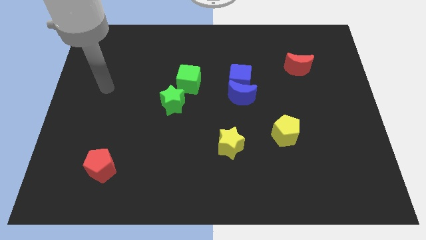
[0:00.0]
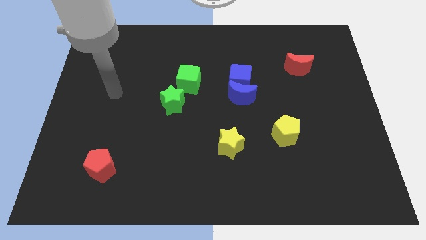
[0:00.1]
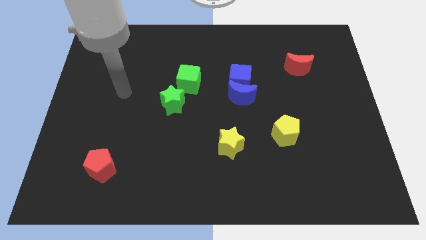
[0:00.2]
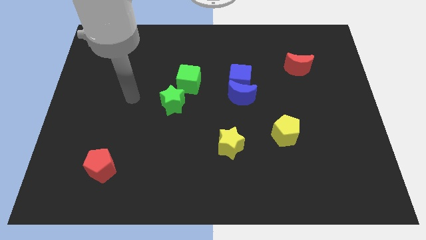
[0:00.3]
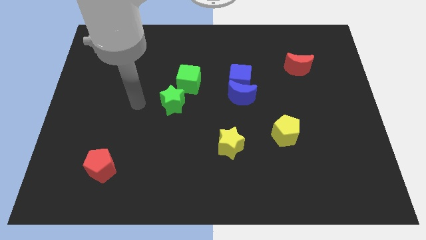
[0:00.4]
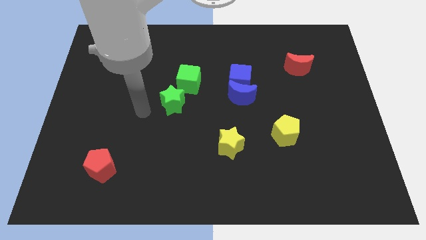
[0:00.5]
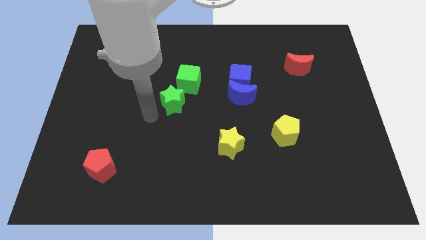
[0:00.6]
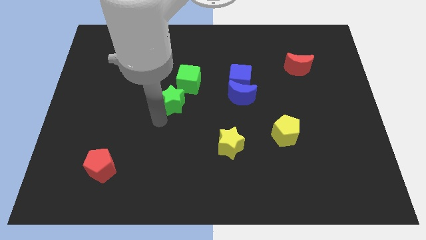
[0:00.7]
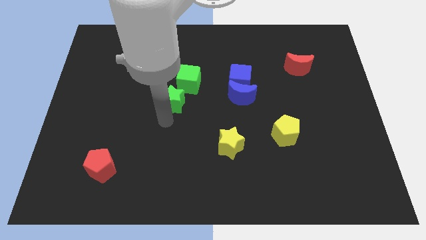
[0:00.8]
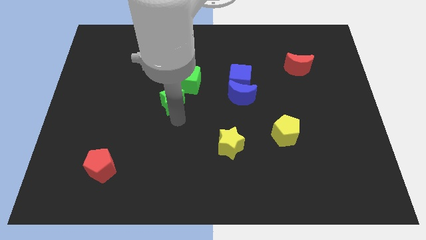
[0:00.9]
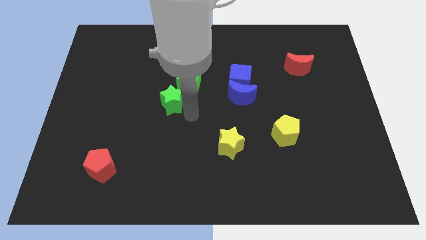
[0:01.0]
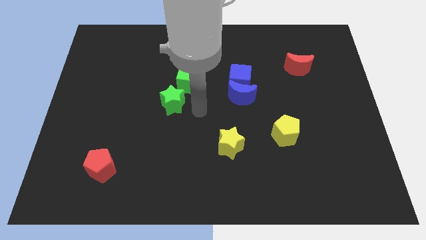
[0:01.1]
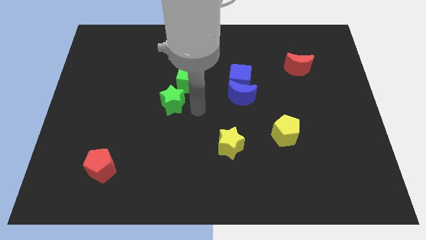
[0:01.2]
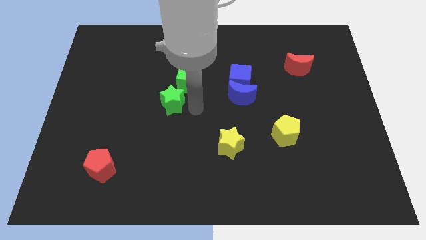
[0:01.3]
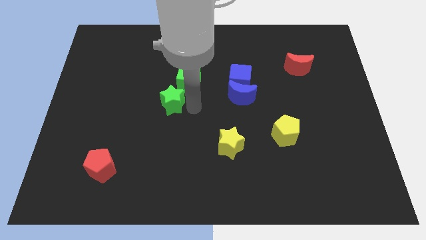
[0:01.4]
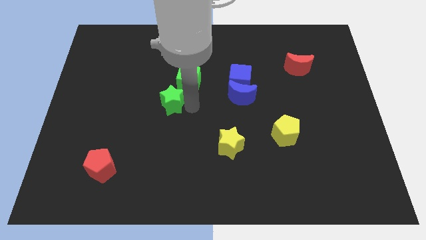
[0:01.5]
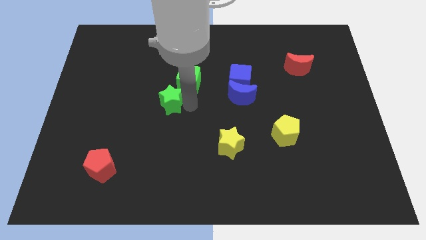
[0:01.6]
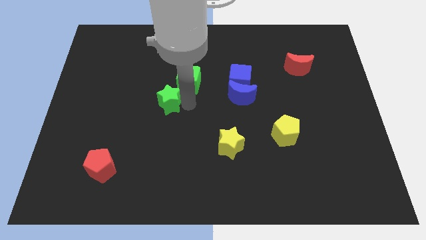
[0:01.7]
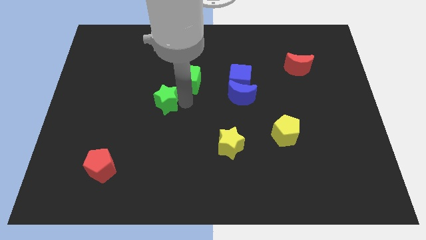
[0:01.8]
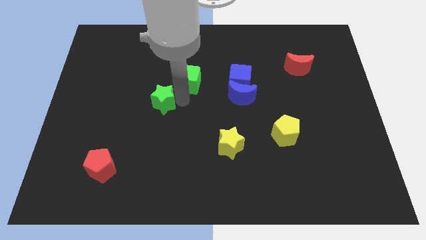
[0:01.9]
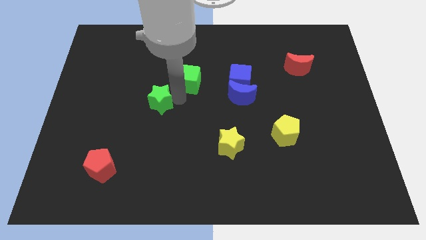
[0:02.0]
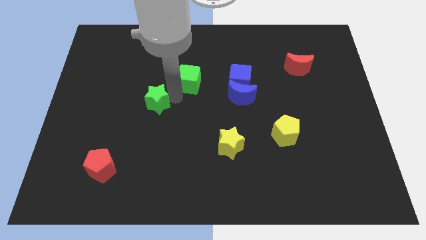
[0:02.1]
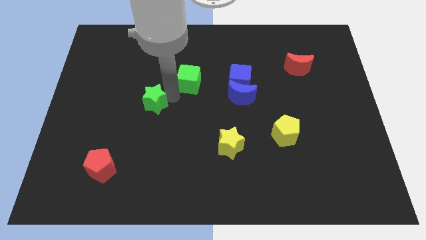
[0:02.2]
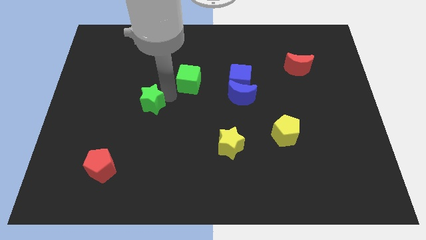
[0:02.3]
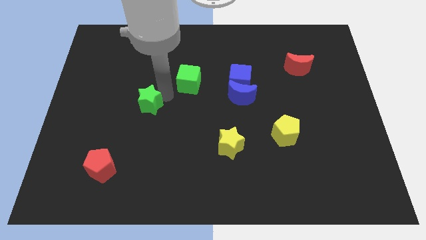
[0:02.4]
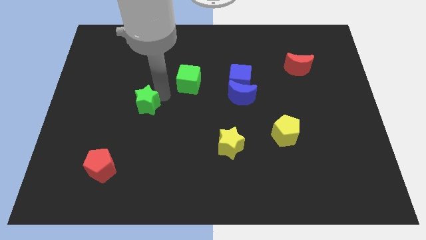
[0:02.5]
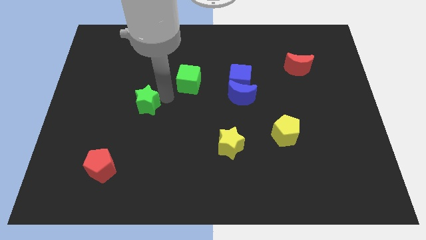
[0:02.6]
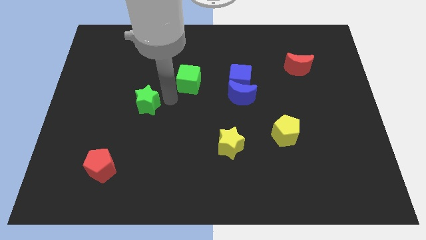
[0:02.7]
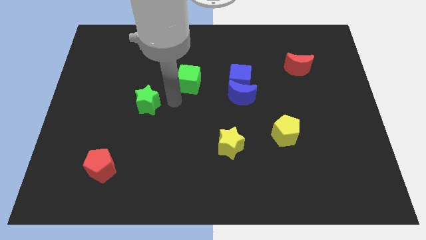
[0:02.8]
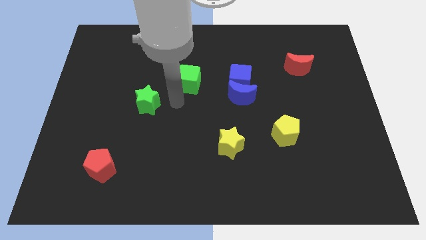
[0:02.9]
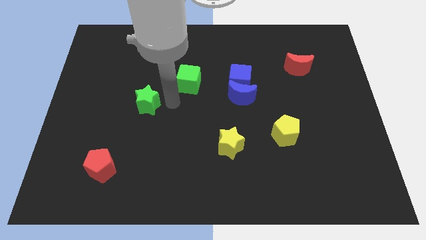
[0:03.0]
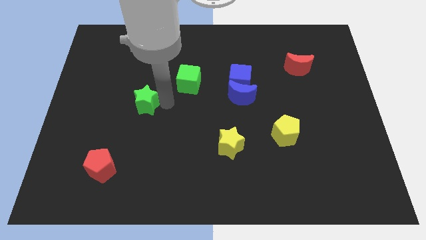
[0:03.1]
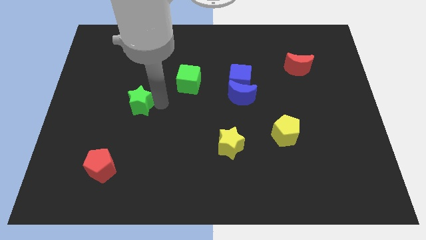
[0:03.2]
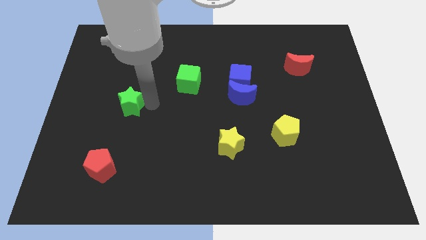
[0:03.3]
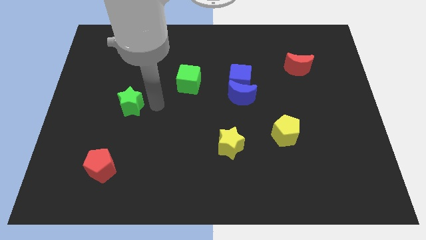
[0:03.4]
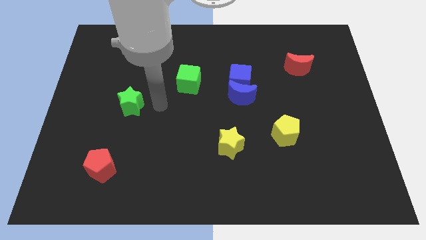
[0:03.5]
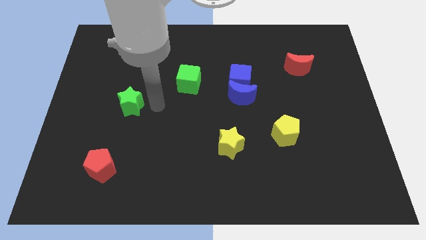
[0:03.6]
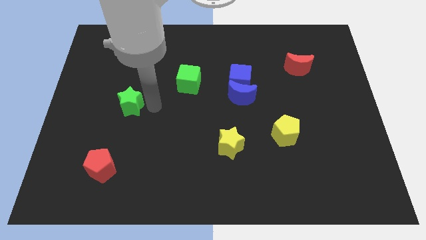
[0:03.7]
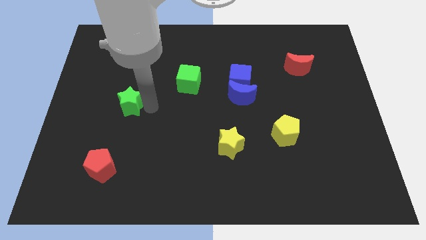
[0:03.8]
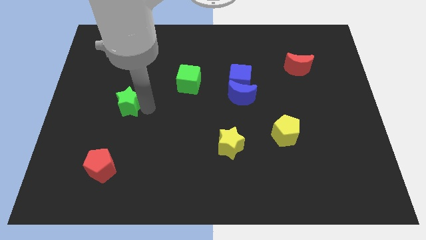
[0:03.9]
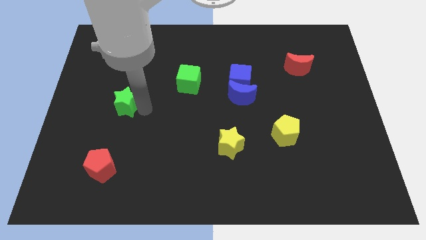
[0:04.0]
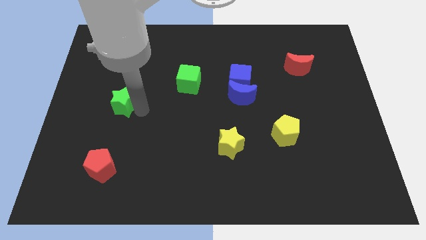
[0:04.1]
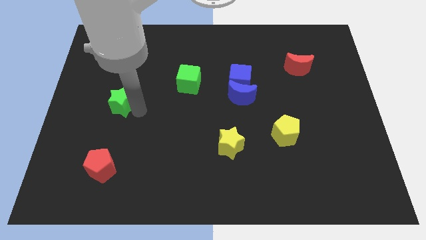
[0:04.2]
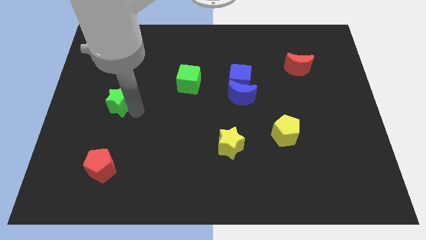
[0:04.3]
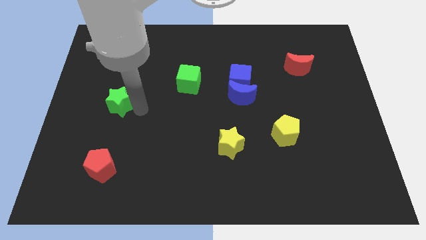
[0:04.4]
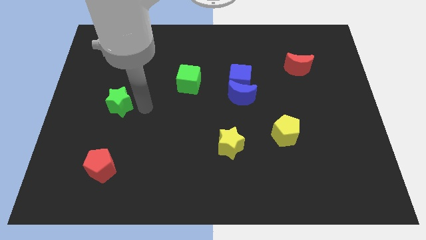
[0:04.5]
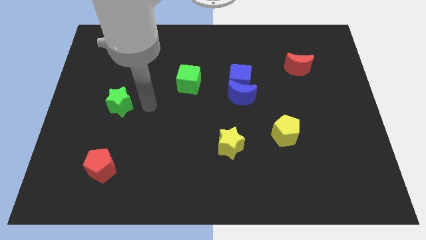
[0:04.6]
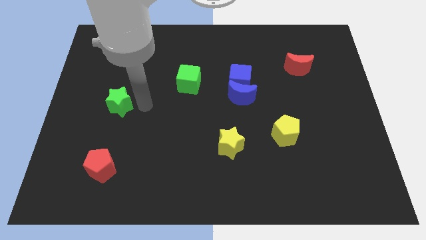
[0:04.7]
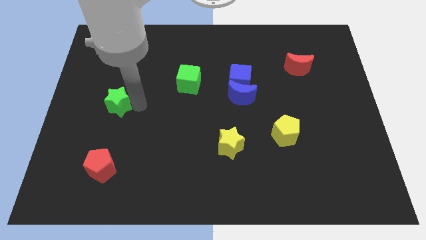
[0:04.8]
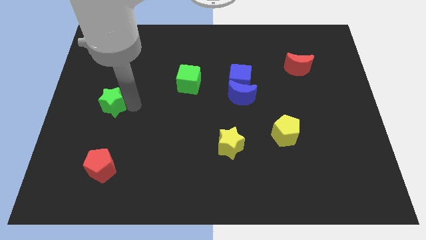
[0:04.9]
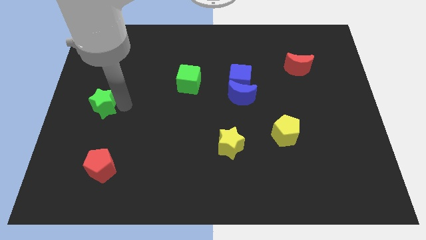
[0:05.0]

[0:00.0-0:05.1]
push the green star to the left side of the board

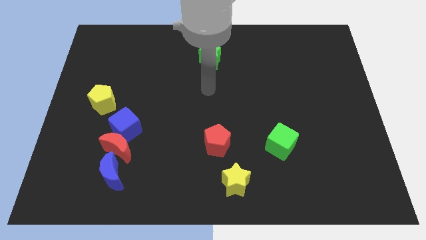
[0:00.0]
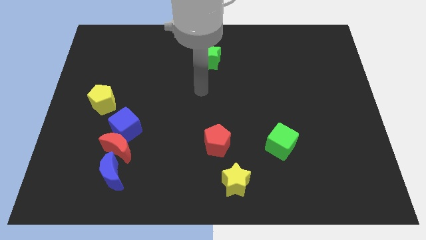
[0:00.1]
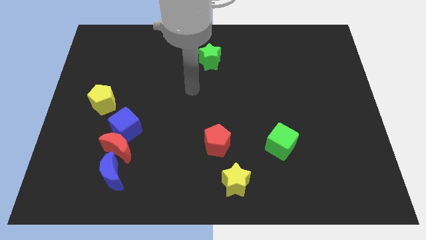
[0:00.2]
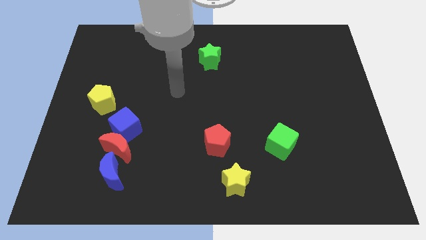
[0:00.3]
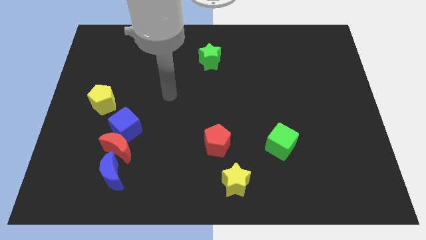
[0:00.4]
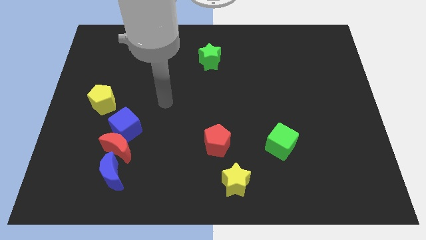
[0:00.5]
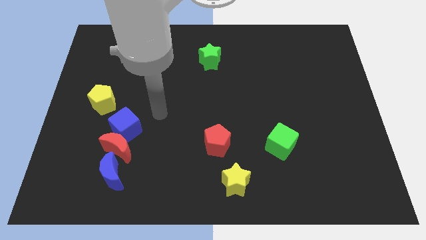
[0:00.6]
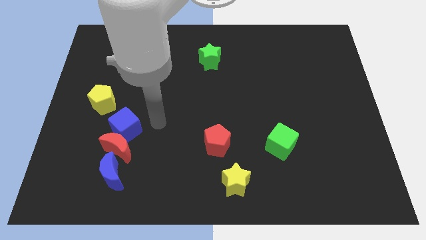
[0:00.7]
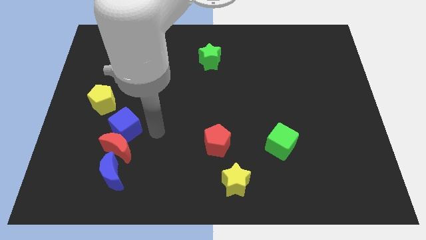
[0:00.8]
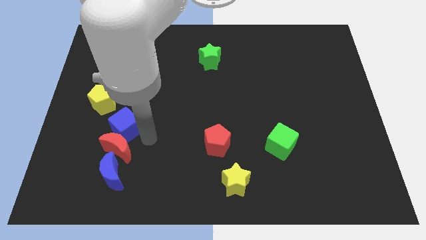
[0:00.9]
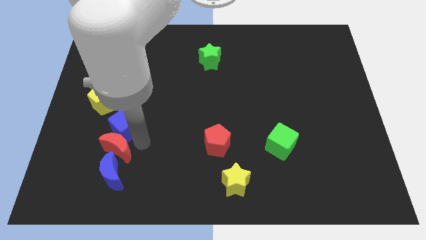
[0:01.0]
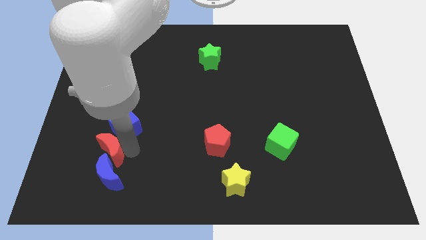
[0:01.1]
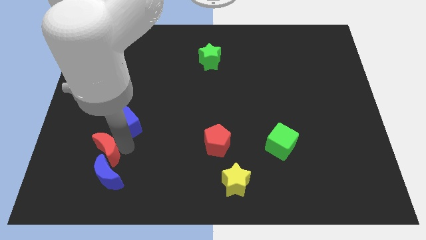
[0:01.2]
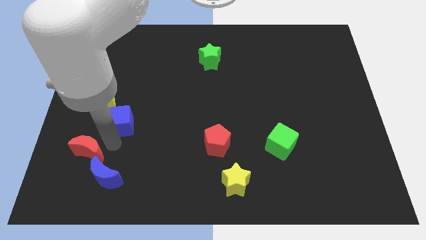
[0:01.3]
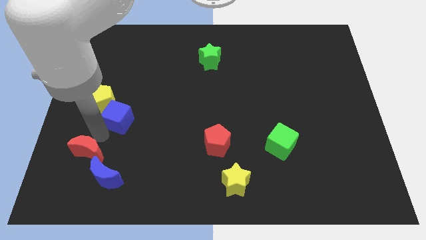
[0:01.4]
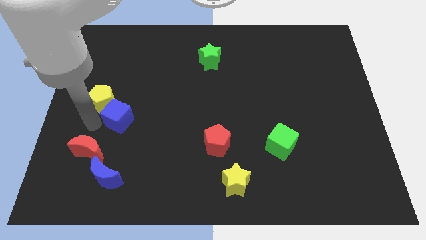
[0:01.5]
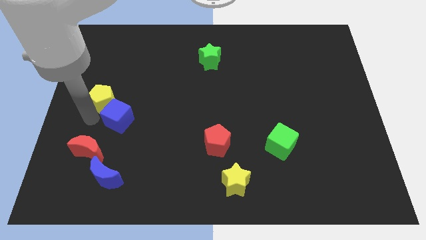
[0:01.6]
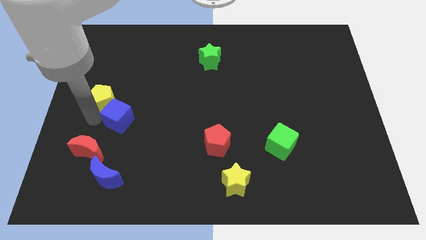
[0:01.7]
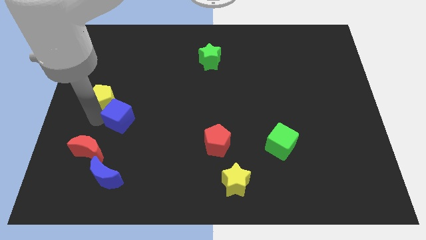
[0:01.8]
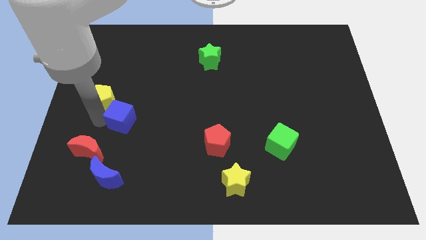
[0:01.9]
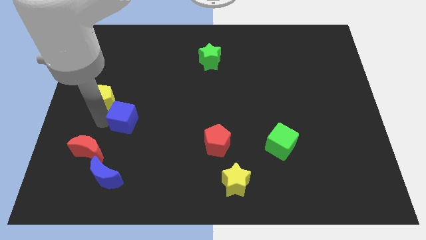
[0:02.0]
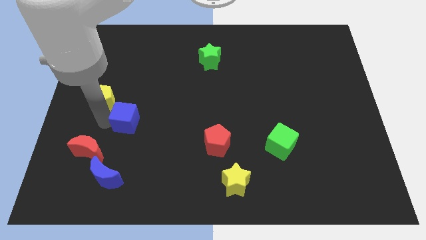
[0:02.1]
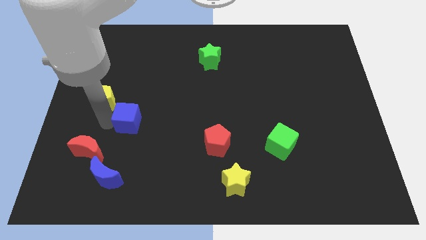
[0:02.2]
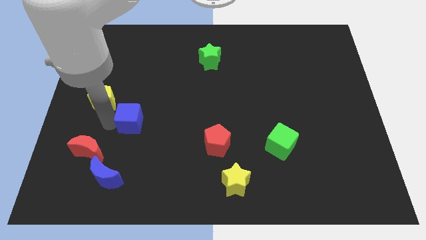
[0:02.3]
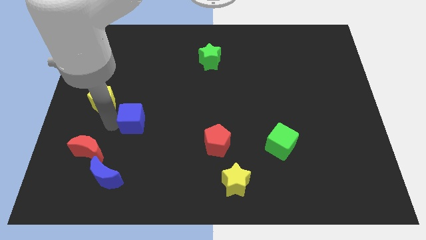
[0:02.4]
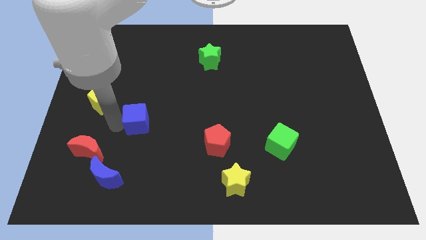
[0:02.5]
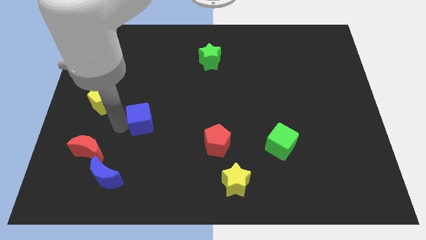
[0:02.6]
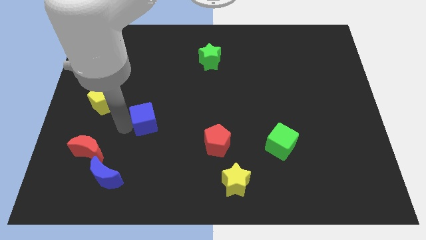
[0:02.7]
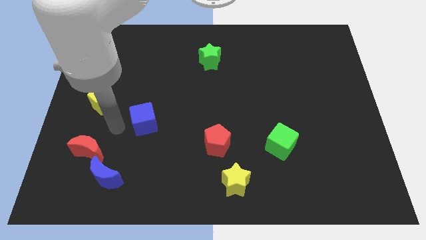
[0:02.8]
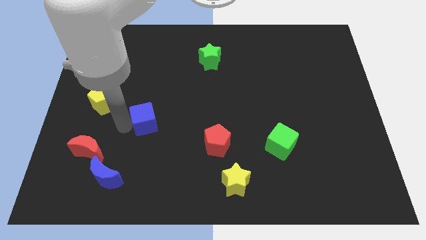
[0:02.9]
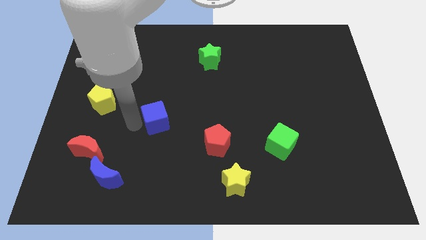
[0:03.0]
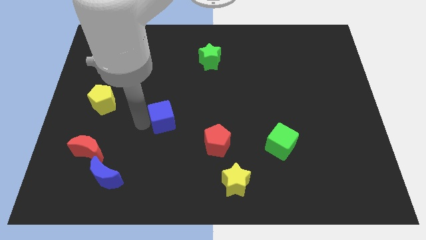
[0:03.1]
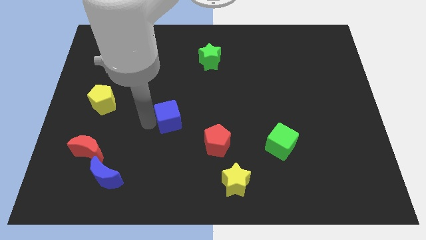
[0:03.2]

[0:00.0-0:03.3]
move the blue cube to the middle of the board
